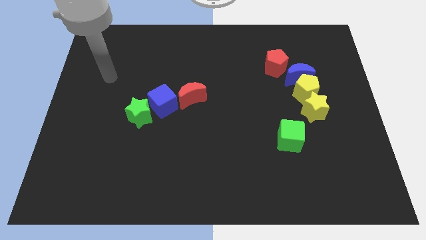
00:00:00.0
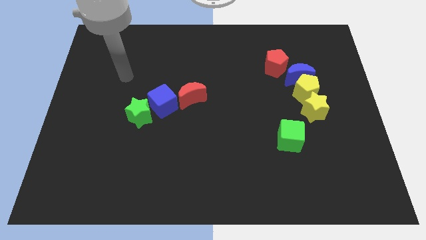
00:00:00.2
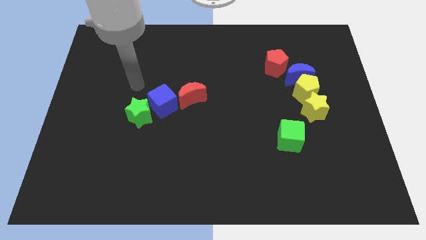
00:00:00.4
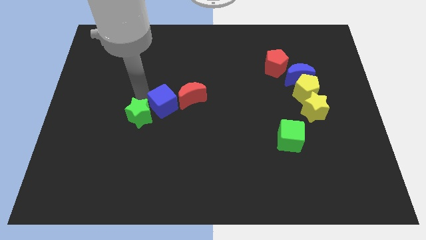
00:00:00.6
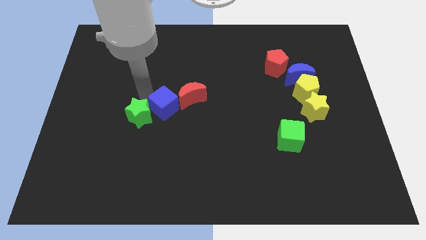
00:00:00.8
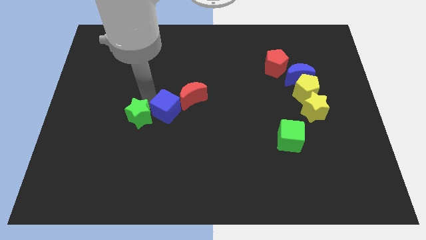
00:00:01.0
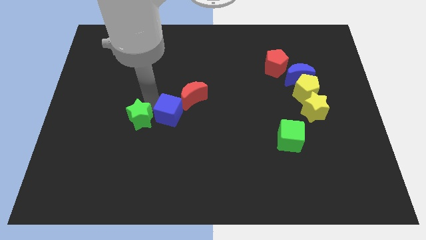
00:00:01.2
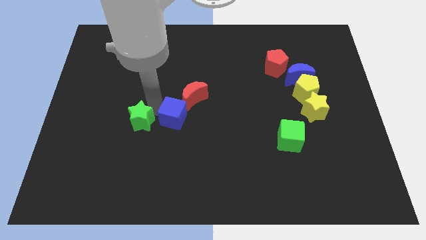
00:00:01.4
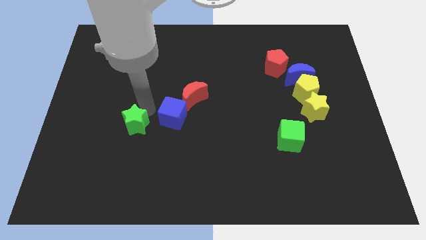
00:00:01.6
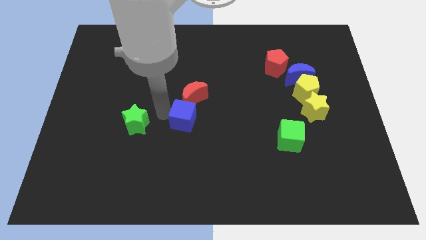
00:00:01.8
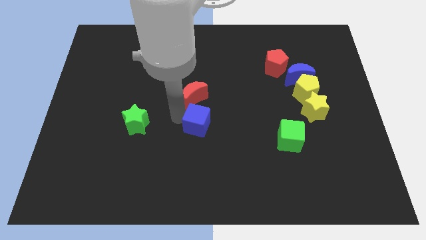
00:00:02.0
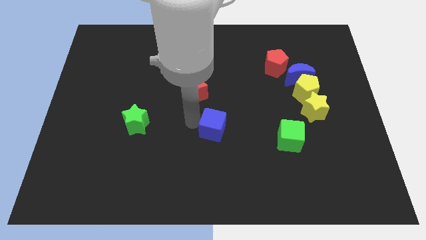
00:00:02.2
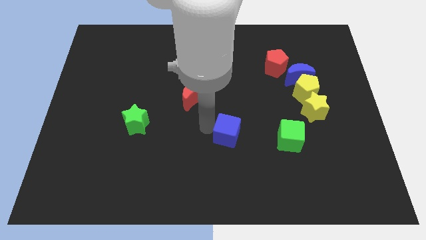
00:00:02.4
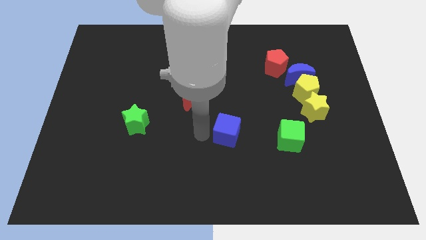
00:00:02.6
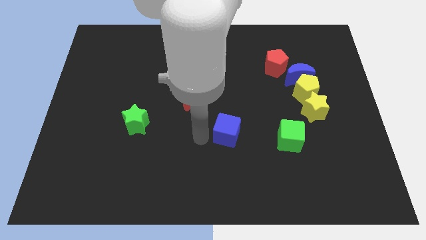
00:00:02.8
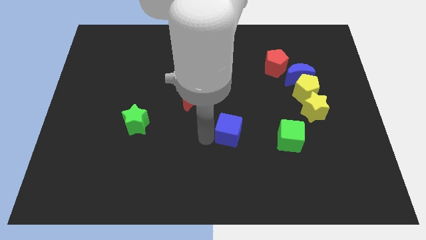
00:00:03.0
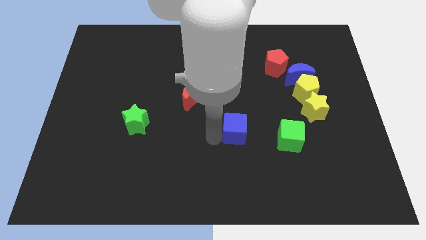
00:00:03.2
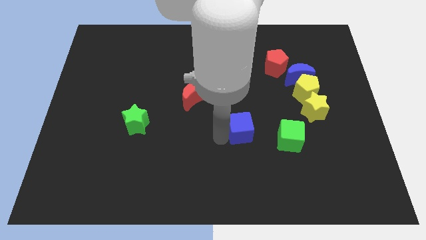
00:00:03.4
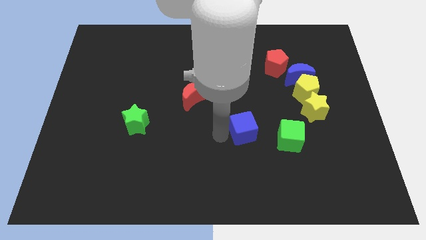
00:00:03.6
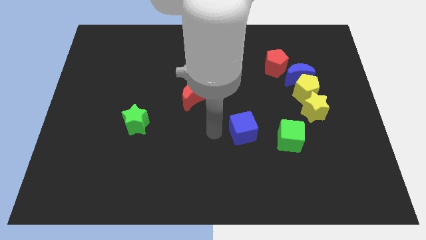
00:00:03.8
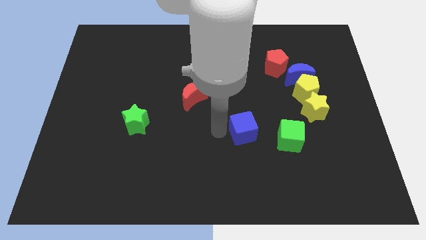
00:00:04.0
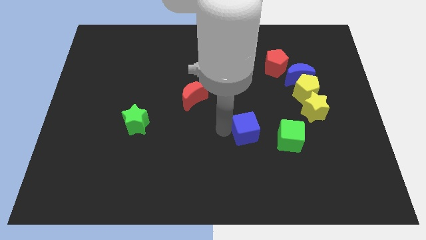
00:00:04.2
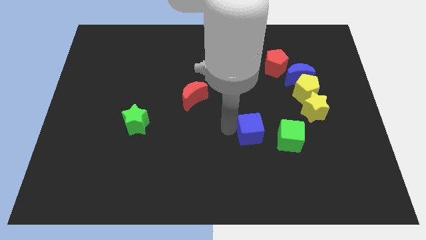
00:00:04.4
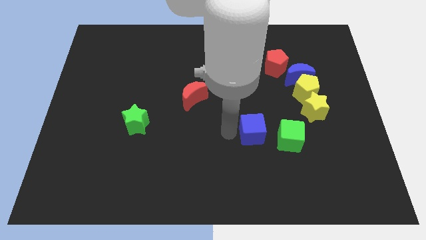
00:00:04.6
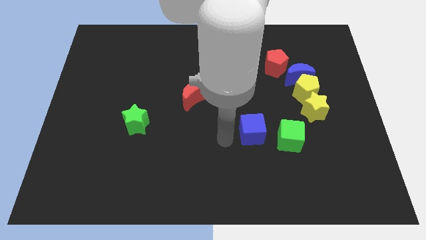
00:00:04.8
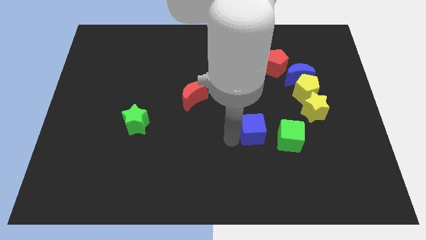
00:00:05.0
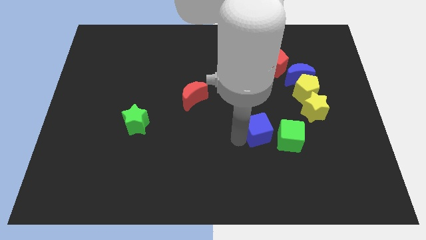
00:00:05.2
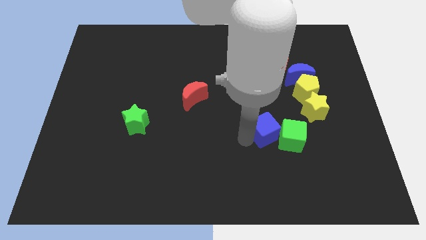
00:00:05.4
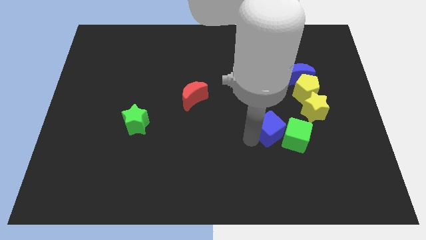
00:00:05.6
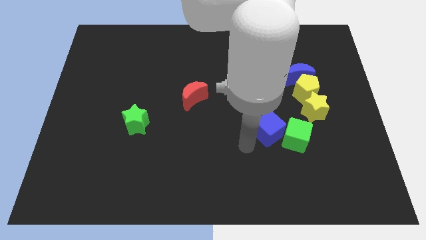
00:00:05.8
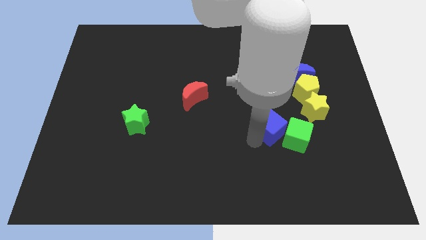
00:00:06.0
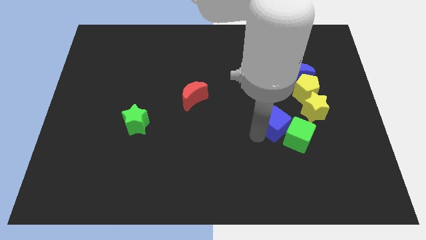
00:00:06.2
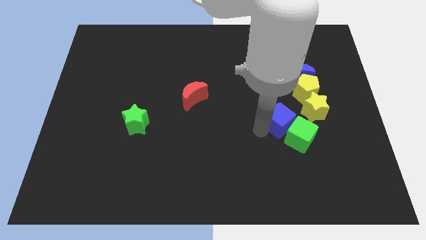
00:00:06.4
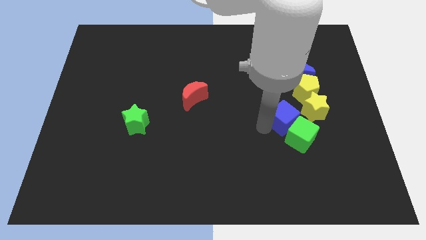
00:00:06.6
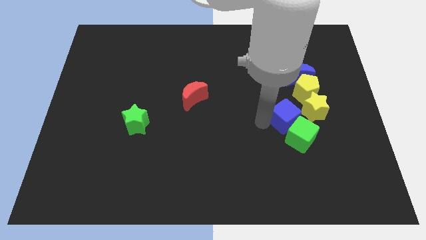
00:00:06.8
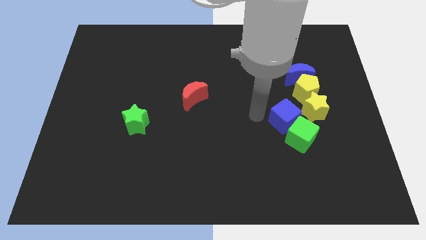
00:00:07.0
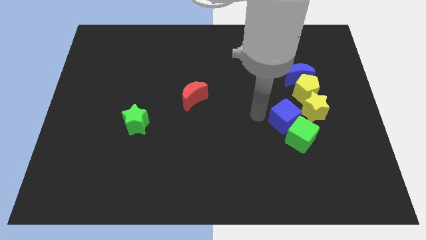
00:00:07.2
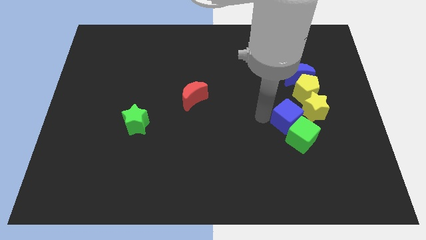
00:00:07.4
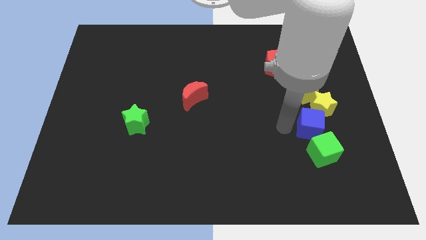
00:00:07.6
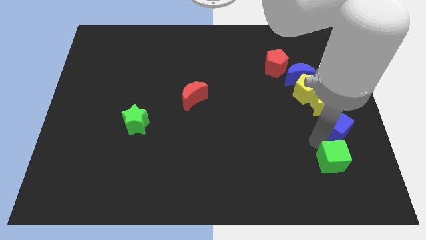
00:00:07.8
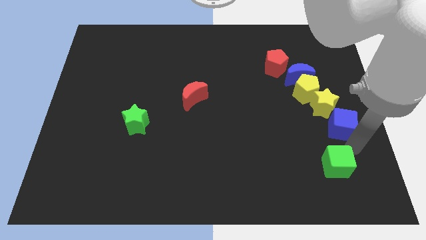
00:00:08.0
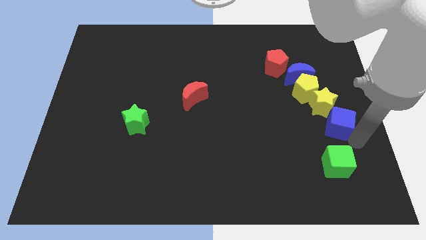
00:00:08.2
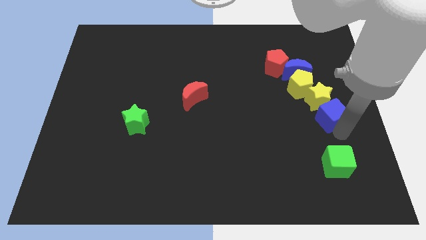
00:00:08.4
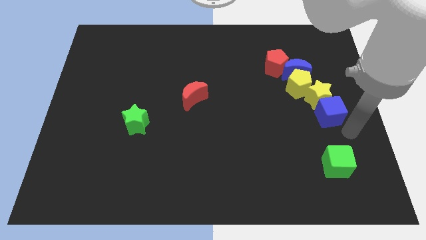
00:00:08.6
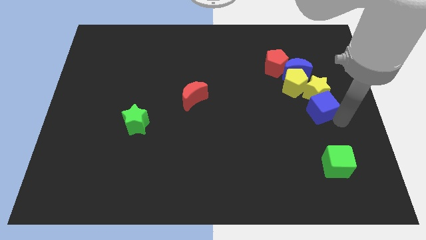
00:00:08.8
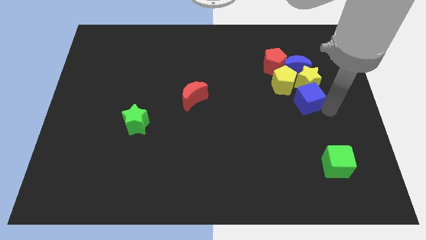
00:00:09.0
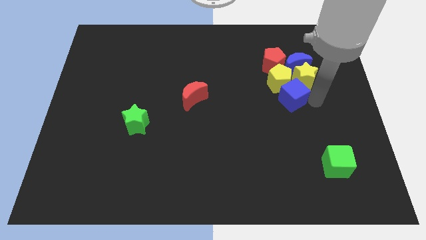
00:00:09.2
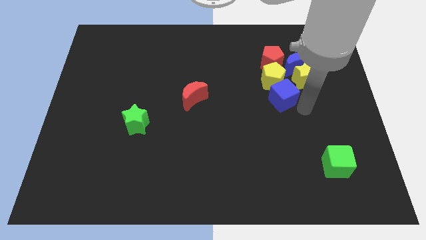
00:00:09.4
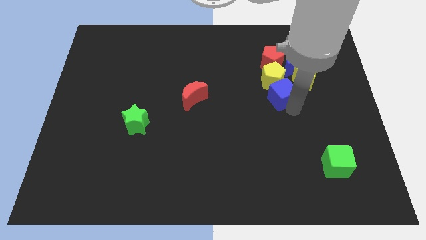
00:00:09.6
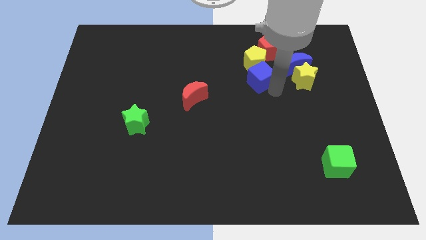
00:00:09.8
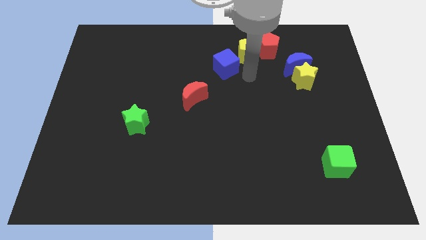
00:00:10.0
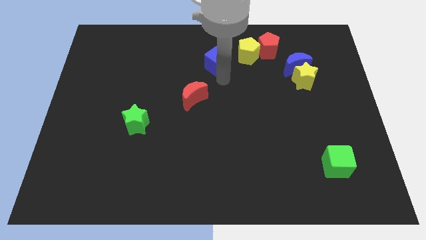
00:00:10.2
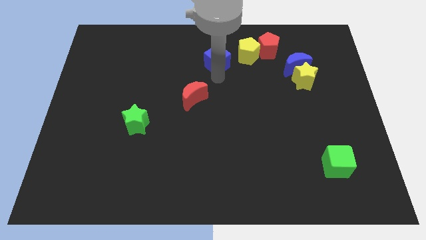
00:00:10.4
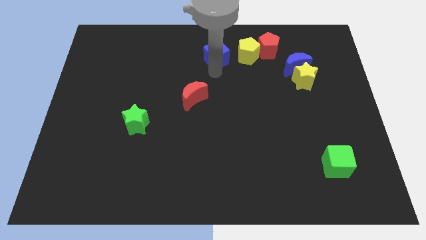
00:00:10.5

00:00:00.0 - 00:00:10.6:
put the blue cube to the top

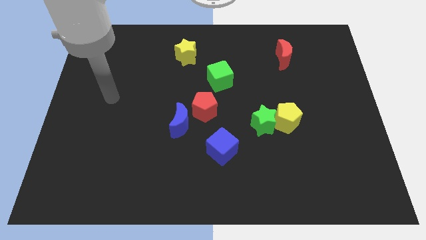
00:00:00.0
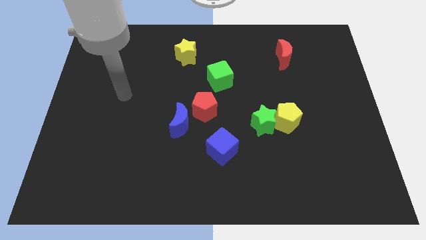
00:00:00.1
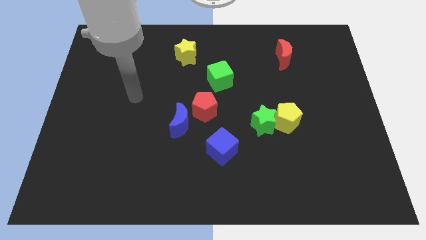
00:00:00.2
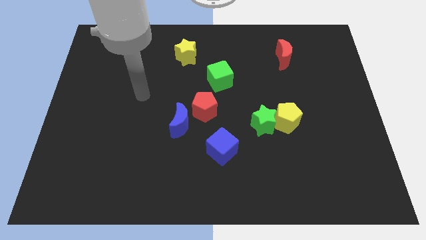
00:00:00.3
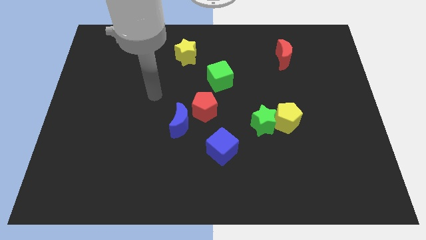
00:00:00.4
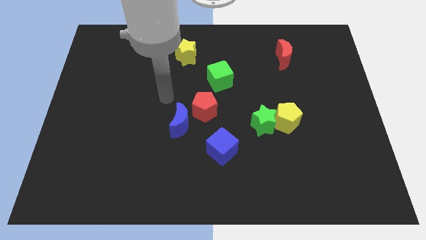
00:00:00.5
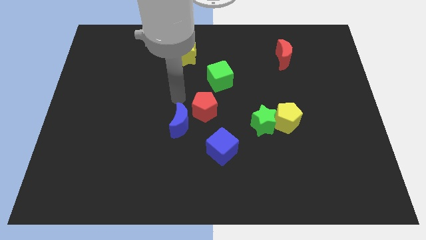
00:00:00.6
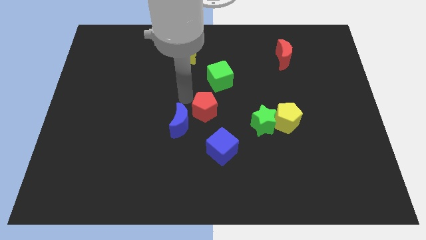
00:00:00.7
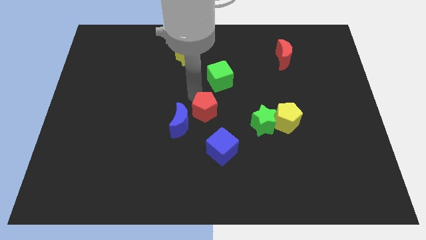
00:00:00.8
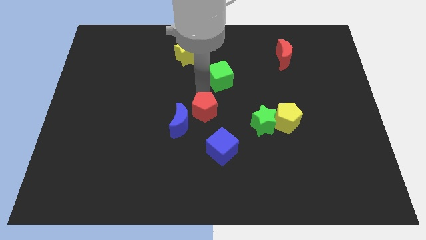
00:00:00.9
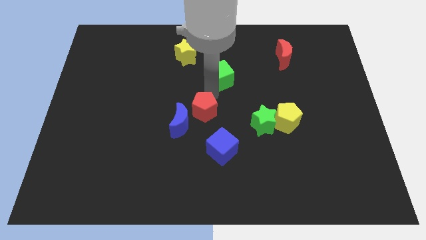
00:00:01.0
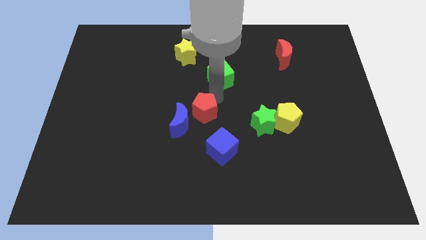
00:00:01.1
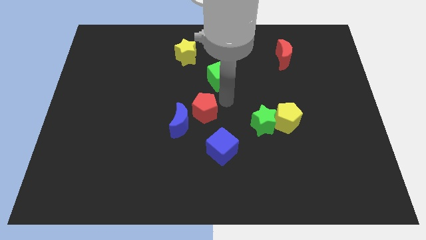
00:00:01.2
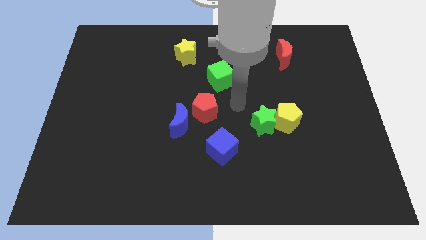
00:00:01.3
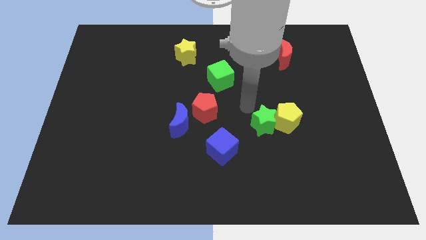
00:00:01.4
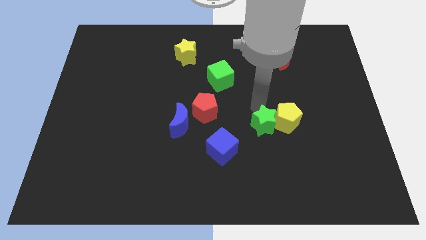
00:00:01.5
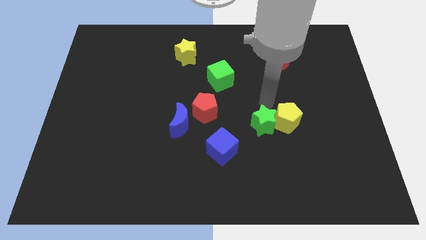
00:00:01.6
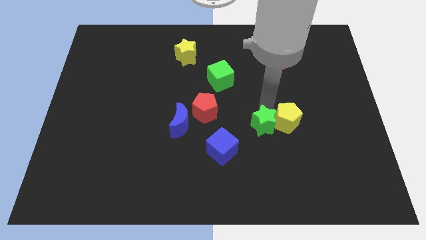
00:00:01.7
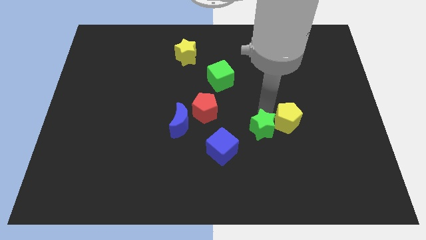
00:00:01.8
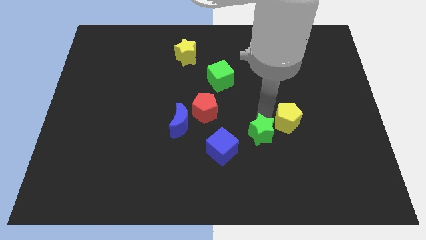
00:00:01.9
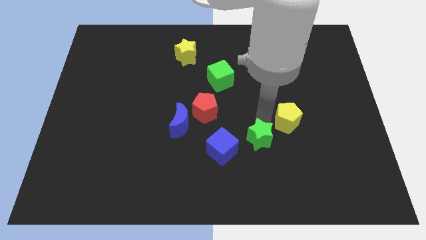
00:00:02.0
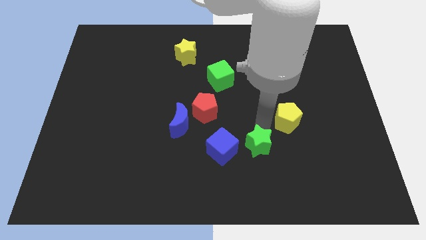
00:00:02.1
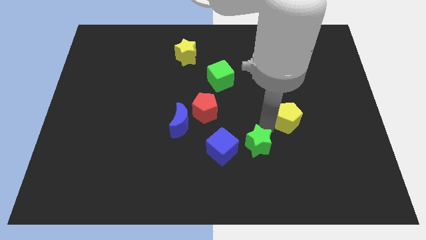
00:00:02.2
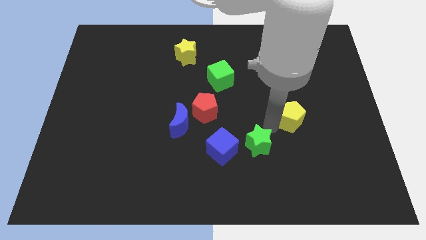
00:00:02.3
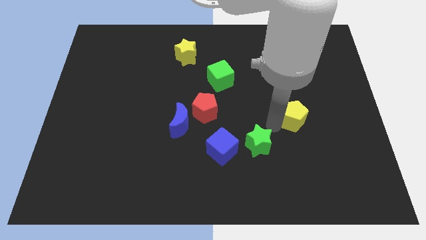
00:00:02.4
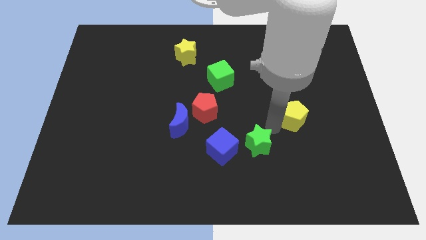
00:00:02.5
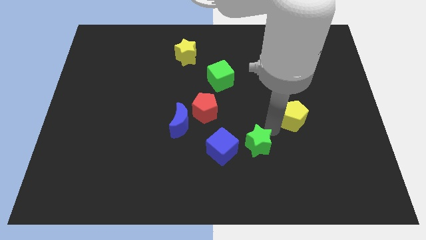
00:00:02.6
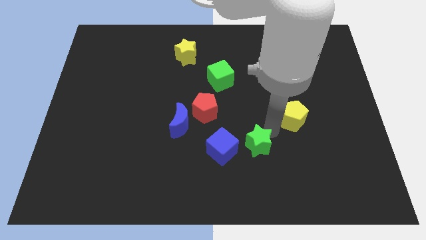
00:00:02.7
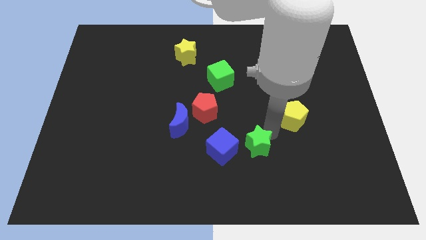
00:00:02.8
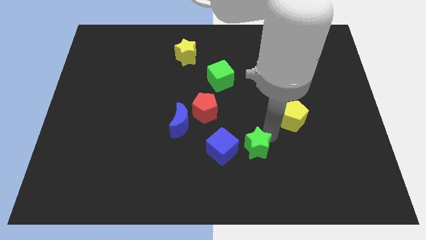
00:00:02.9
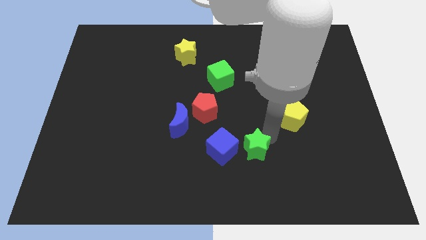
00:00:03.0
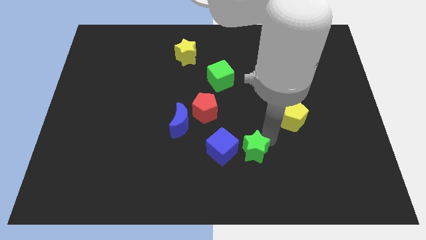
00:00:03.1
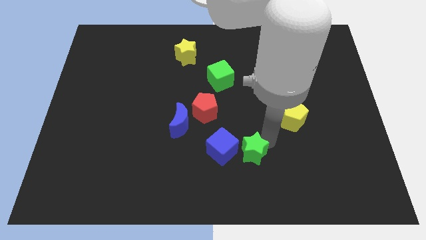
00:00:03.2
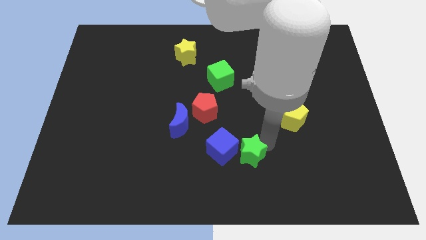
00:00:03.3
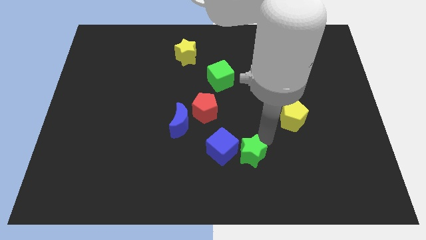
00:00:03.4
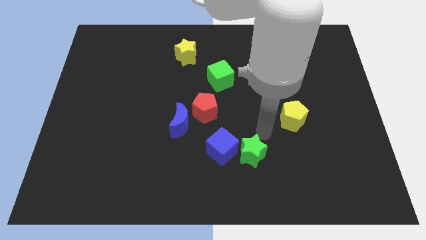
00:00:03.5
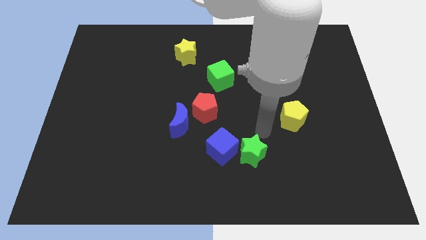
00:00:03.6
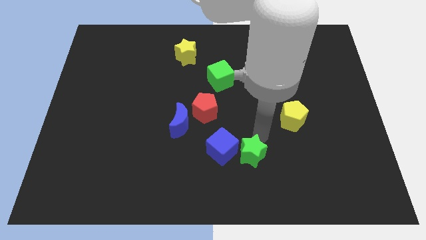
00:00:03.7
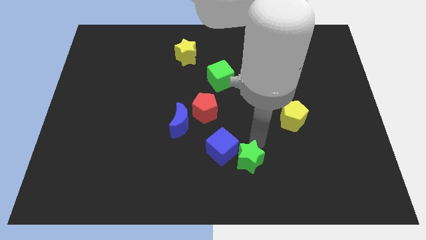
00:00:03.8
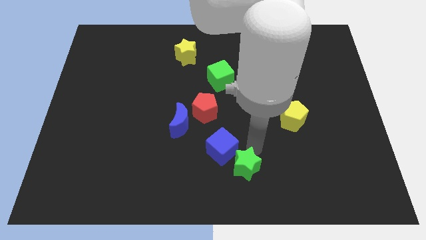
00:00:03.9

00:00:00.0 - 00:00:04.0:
push the green star to the bottom side
